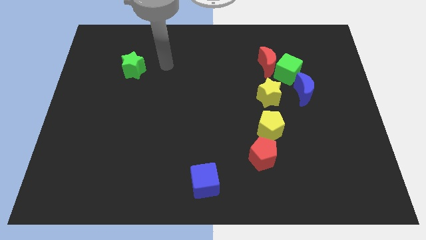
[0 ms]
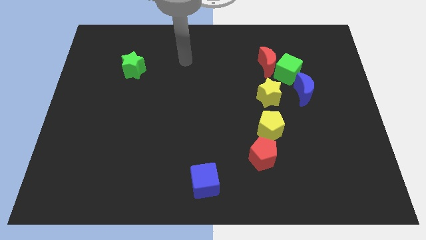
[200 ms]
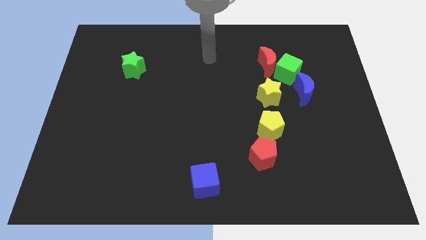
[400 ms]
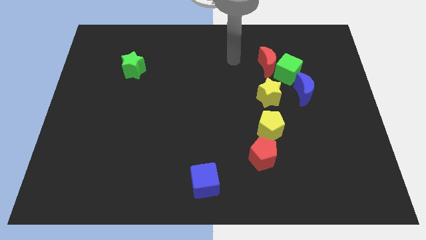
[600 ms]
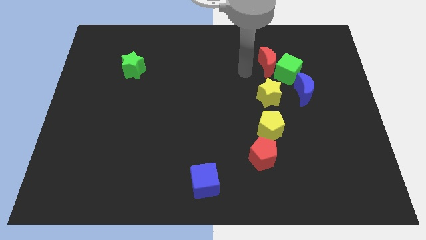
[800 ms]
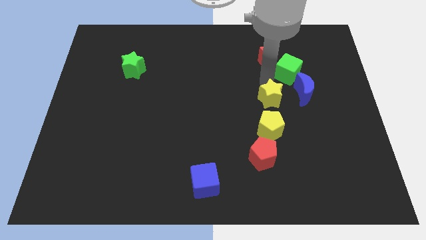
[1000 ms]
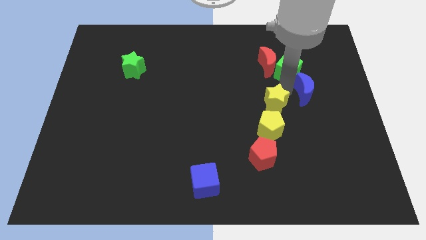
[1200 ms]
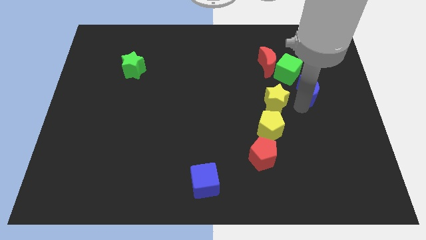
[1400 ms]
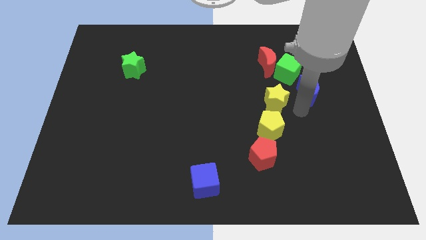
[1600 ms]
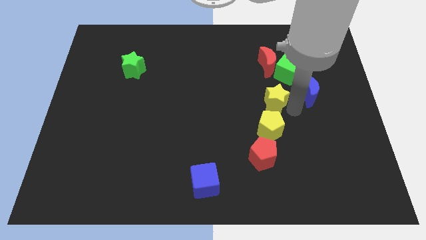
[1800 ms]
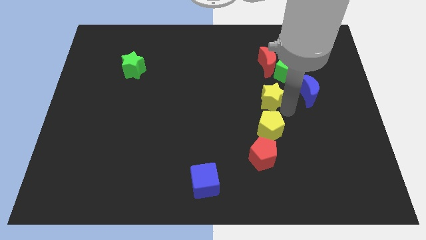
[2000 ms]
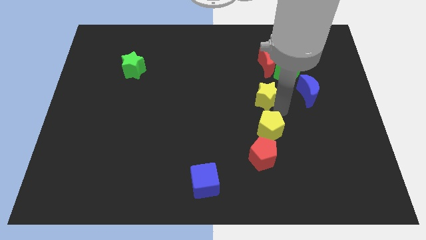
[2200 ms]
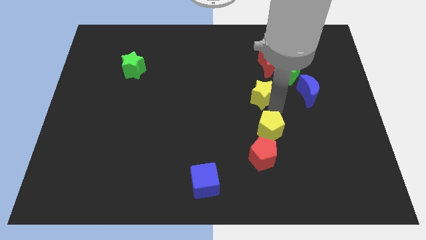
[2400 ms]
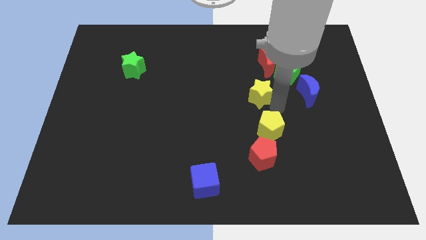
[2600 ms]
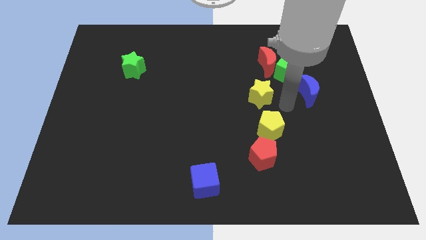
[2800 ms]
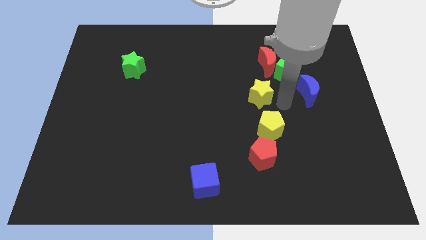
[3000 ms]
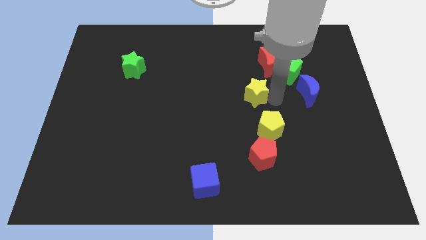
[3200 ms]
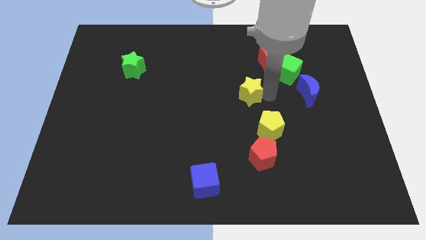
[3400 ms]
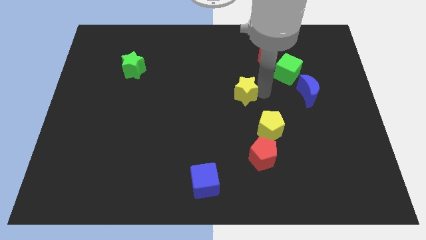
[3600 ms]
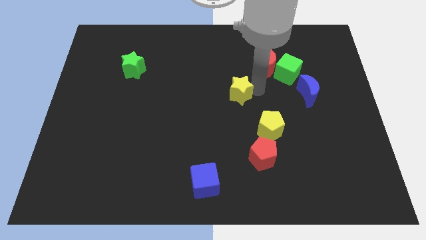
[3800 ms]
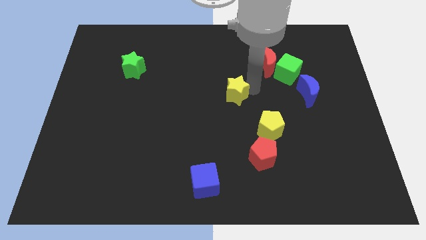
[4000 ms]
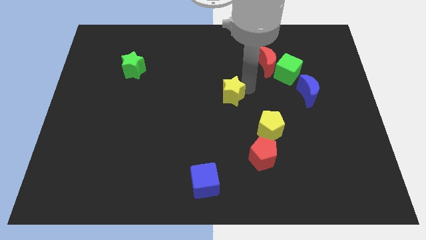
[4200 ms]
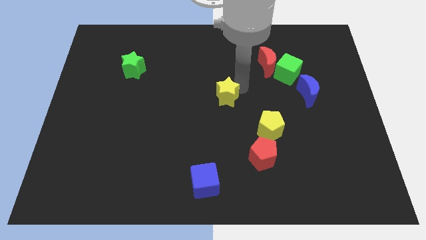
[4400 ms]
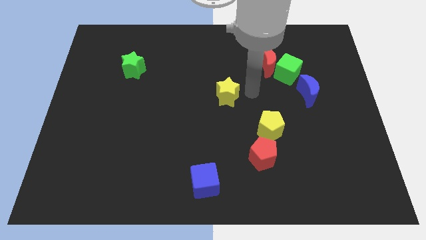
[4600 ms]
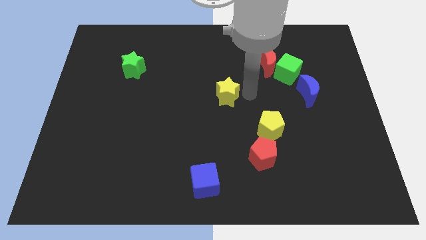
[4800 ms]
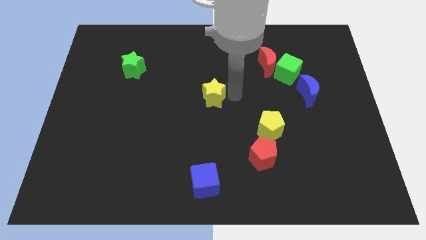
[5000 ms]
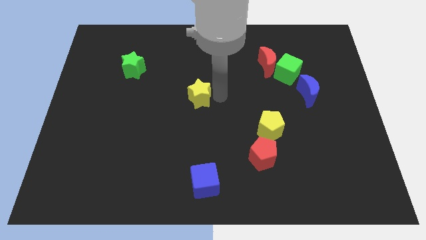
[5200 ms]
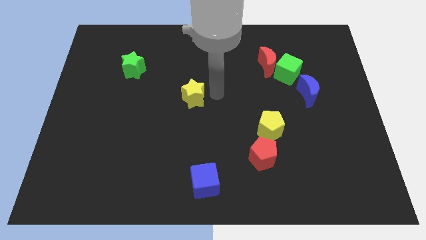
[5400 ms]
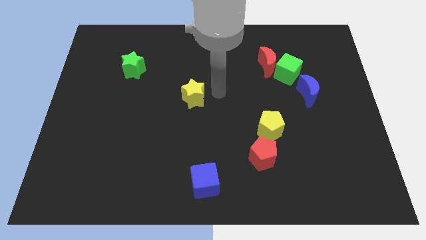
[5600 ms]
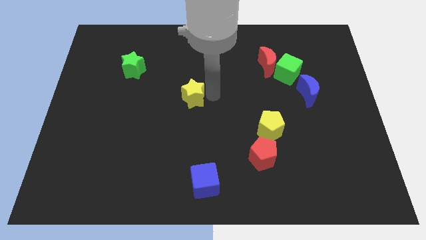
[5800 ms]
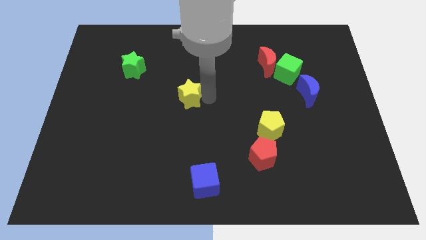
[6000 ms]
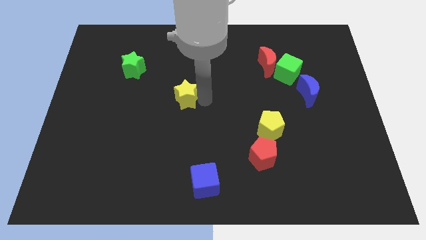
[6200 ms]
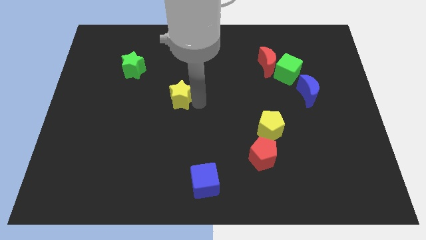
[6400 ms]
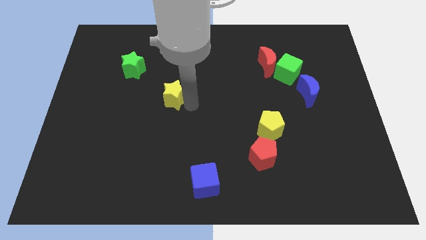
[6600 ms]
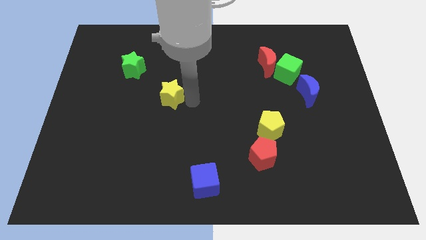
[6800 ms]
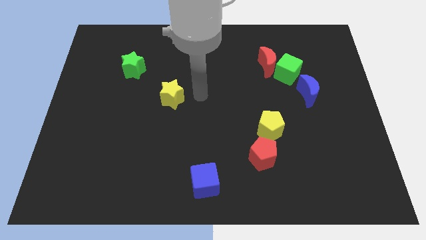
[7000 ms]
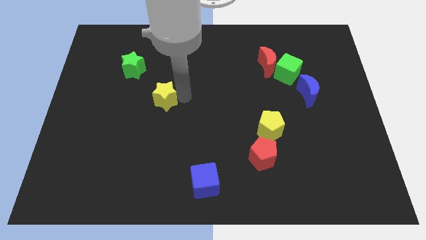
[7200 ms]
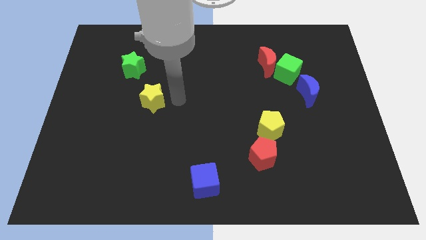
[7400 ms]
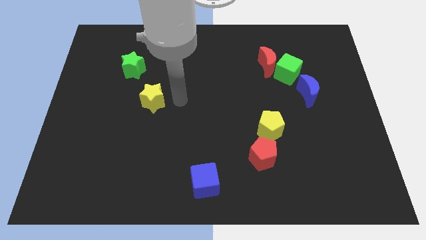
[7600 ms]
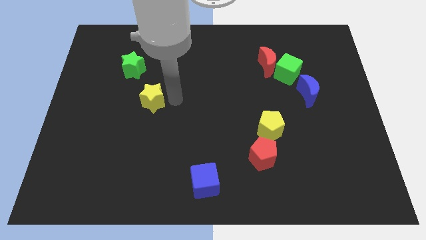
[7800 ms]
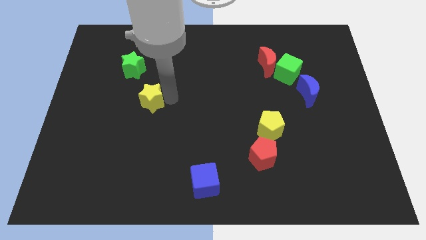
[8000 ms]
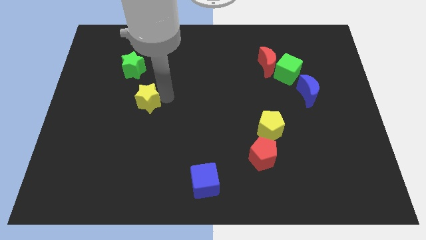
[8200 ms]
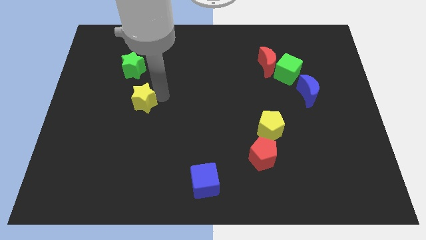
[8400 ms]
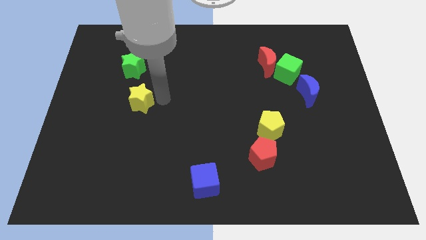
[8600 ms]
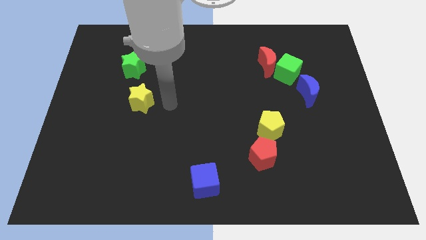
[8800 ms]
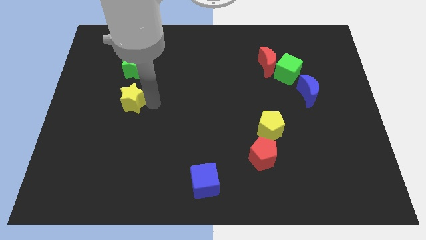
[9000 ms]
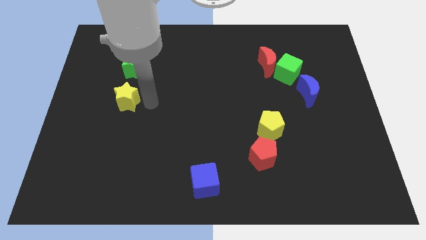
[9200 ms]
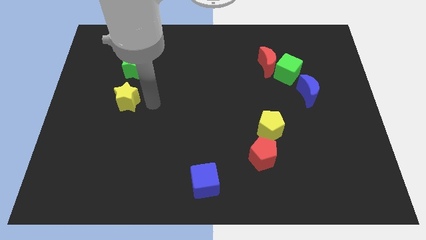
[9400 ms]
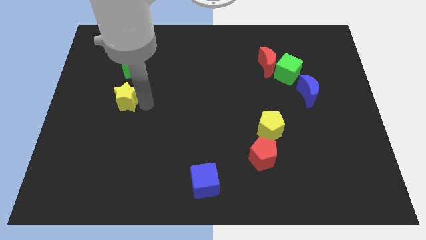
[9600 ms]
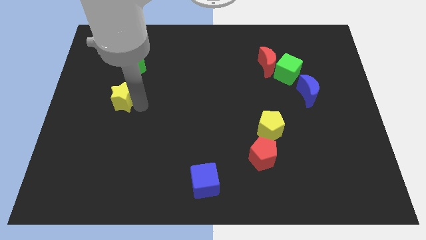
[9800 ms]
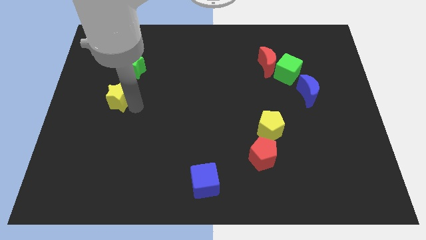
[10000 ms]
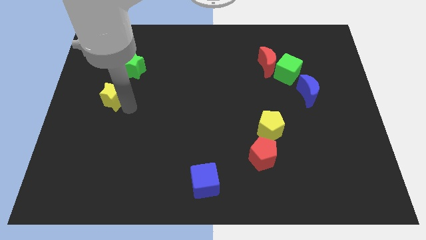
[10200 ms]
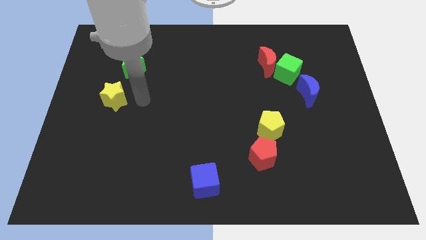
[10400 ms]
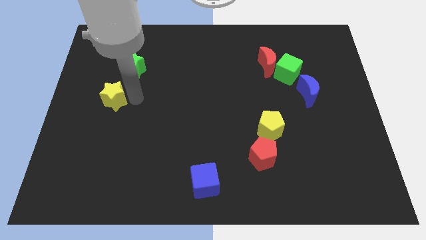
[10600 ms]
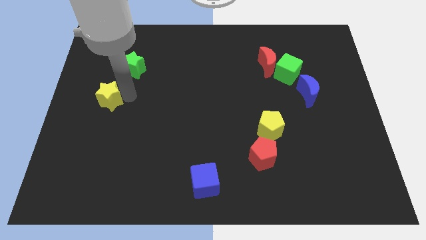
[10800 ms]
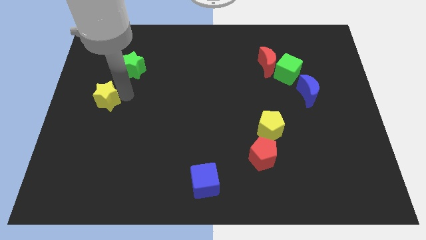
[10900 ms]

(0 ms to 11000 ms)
put the yellow star to the left side

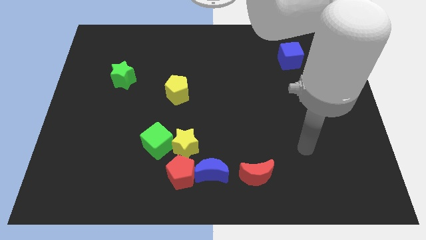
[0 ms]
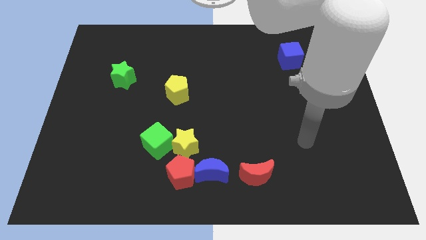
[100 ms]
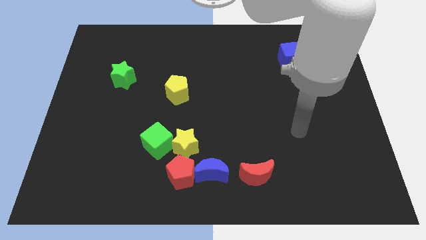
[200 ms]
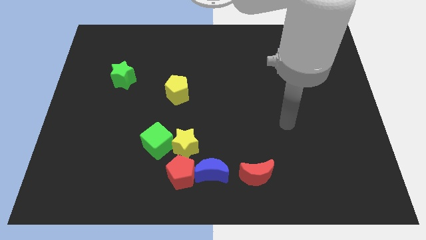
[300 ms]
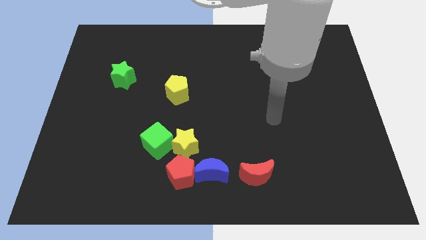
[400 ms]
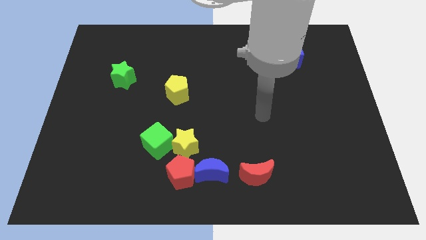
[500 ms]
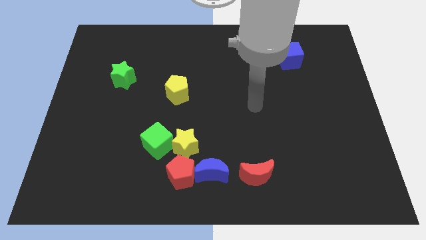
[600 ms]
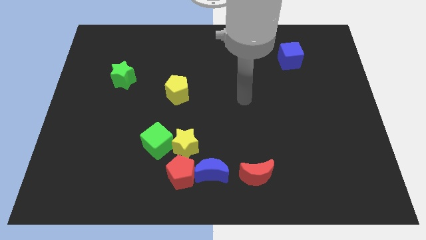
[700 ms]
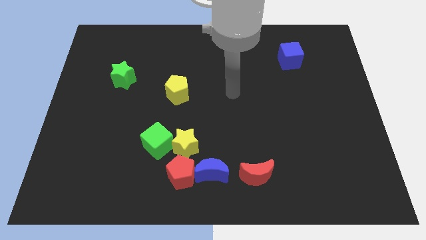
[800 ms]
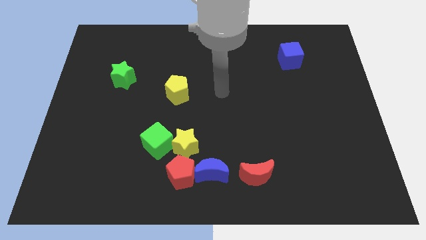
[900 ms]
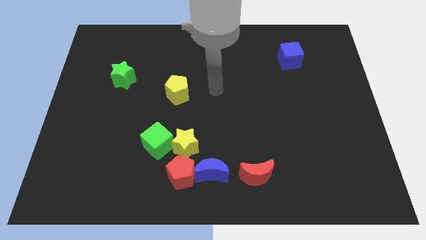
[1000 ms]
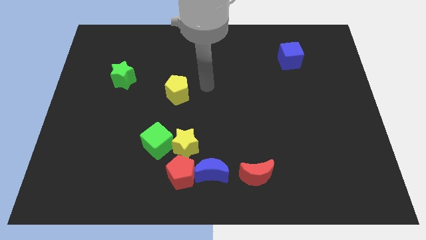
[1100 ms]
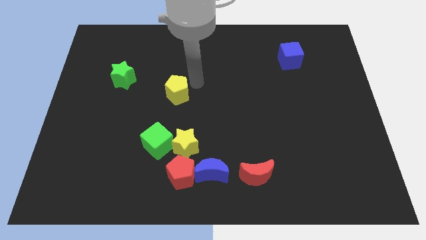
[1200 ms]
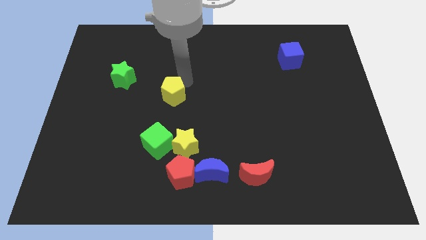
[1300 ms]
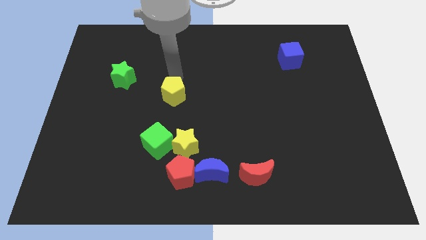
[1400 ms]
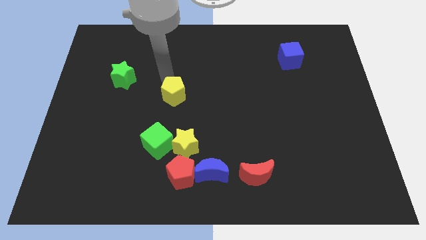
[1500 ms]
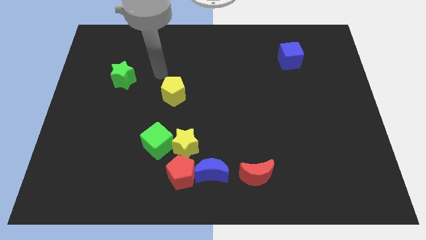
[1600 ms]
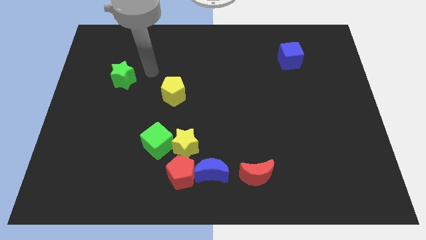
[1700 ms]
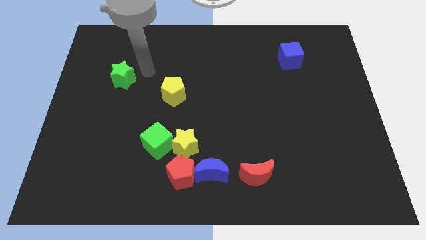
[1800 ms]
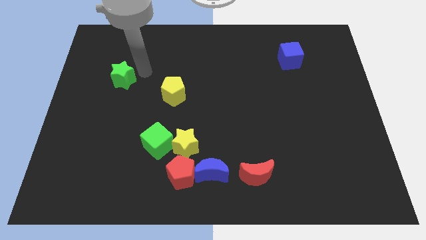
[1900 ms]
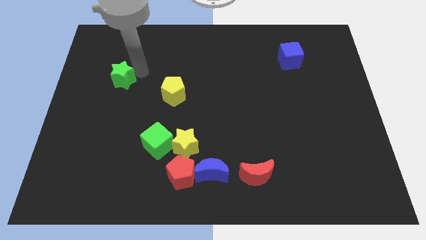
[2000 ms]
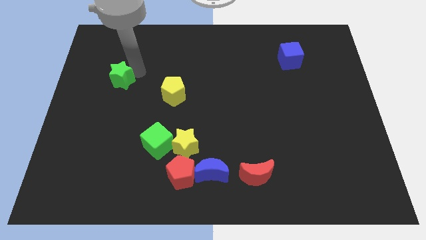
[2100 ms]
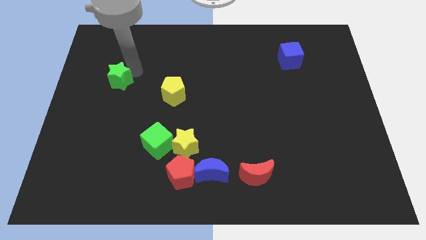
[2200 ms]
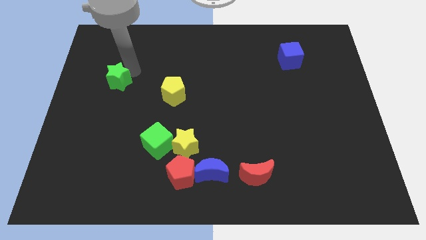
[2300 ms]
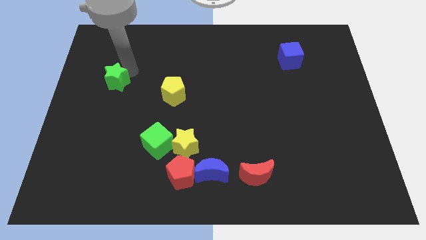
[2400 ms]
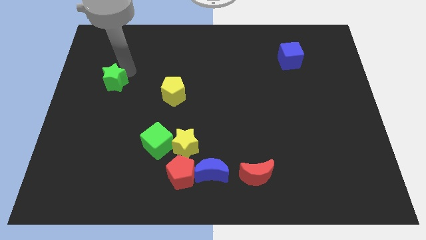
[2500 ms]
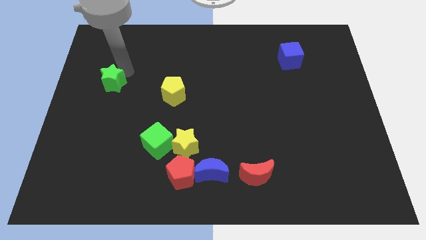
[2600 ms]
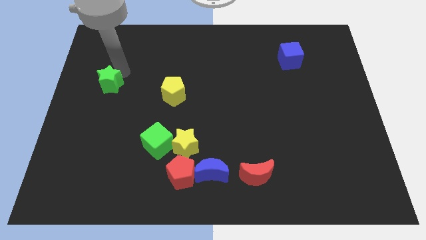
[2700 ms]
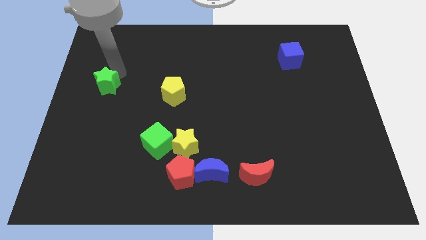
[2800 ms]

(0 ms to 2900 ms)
push the green star to the center left
